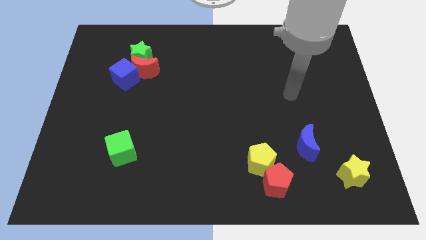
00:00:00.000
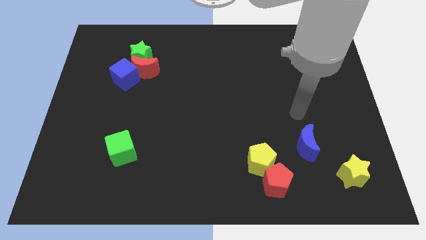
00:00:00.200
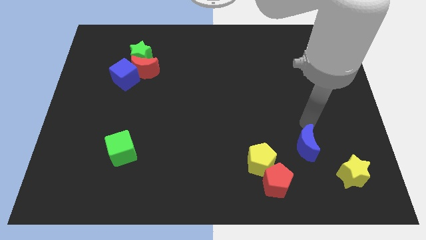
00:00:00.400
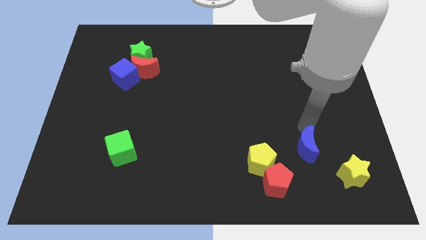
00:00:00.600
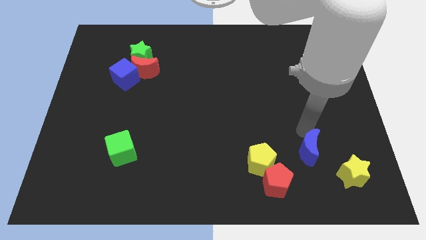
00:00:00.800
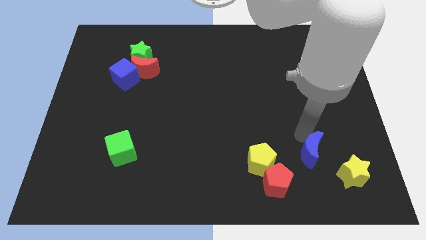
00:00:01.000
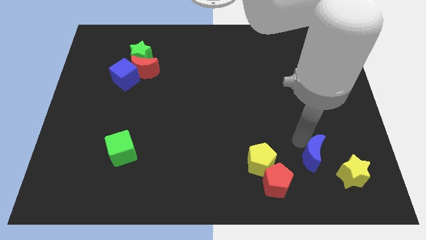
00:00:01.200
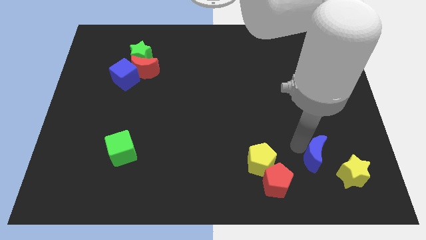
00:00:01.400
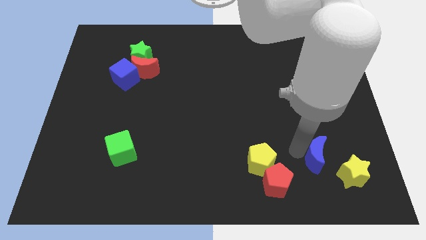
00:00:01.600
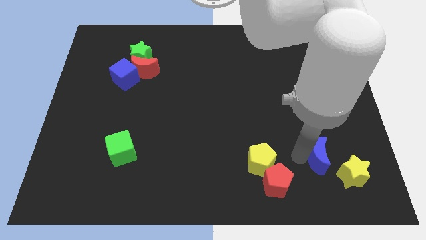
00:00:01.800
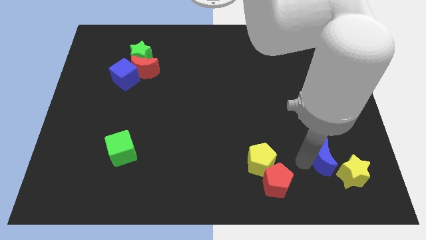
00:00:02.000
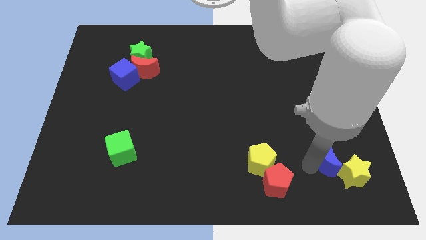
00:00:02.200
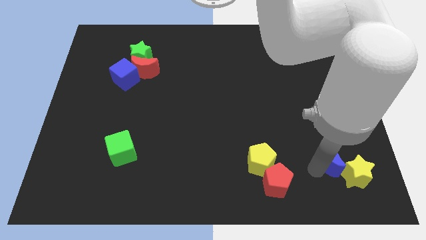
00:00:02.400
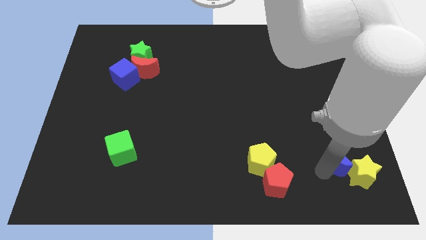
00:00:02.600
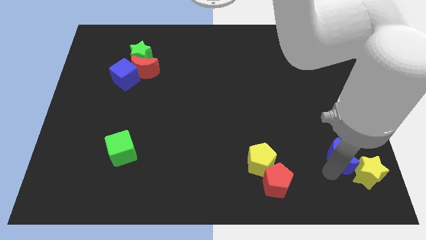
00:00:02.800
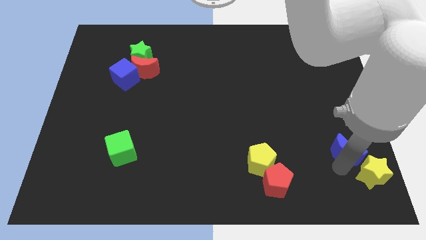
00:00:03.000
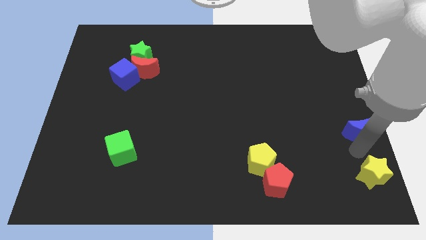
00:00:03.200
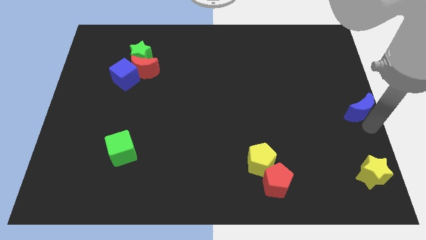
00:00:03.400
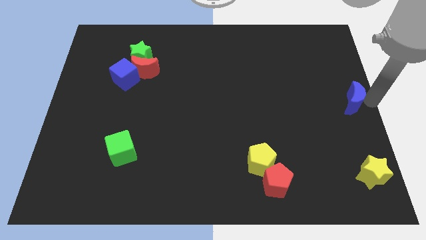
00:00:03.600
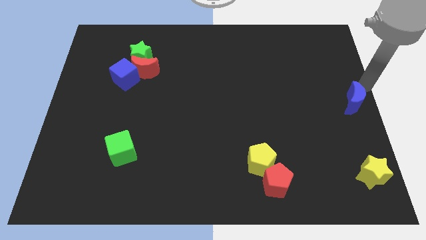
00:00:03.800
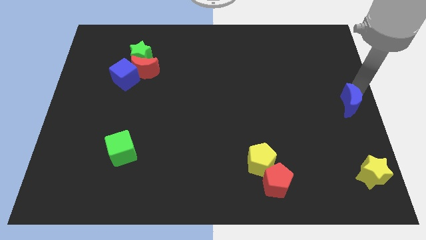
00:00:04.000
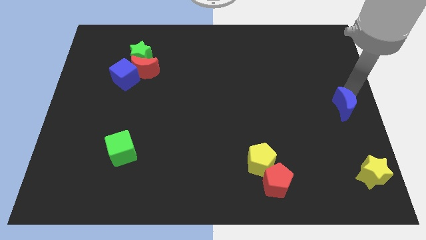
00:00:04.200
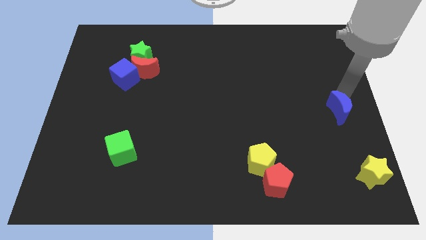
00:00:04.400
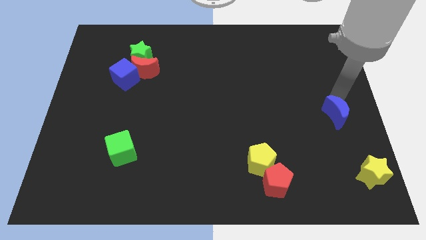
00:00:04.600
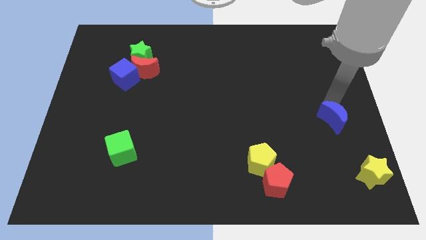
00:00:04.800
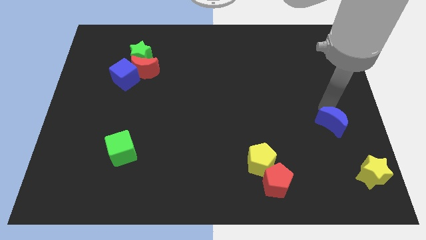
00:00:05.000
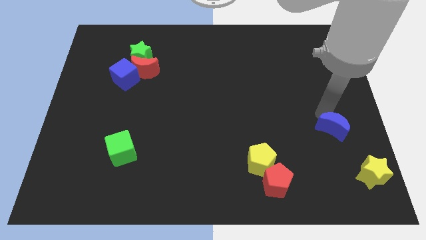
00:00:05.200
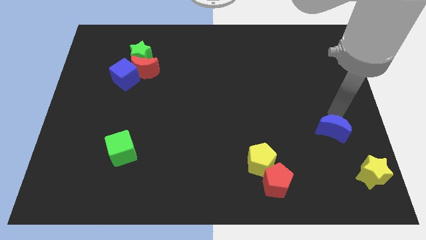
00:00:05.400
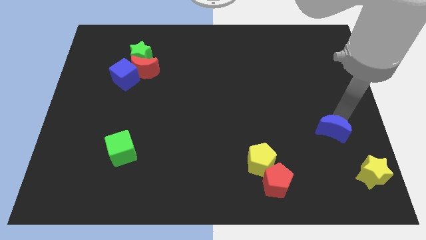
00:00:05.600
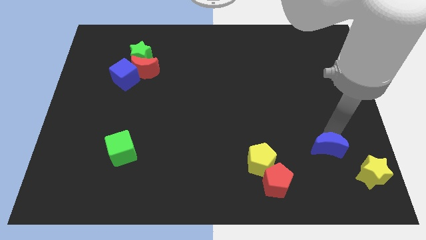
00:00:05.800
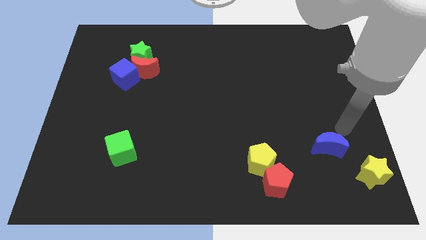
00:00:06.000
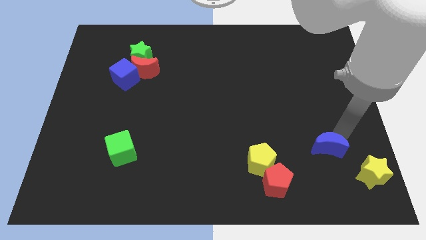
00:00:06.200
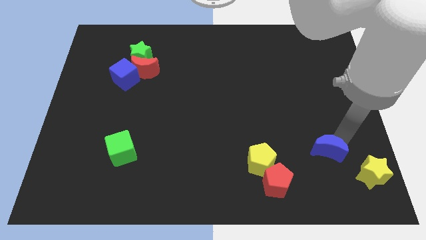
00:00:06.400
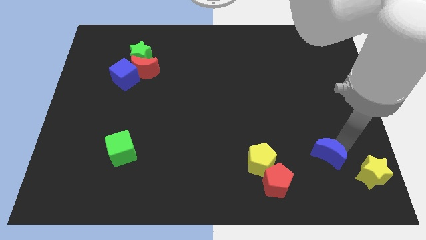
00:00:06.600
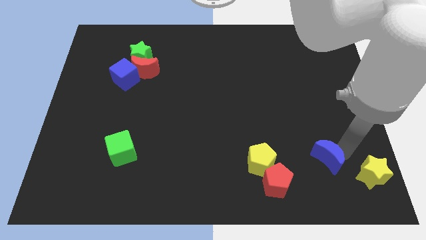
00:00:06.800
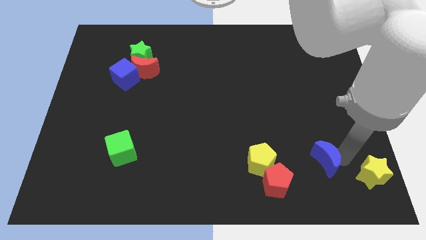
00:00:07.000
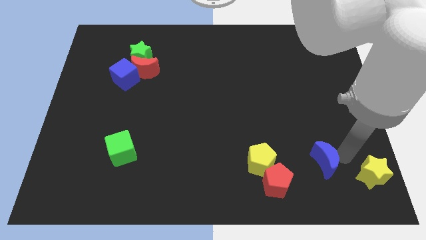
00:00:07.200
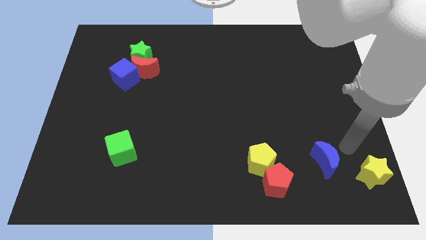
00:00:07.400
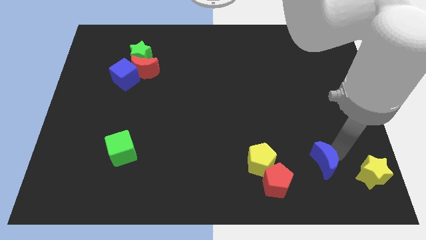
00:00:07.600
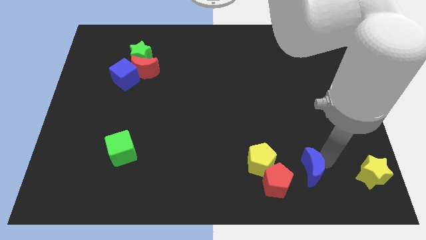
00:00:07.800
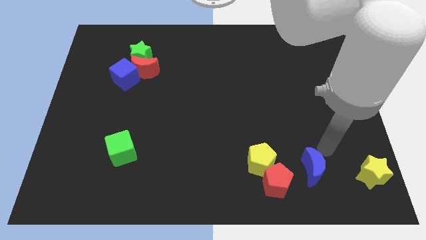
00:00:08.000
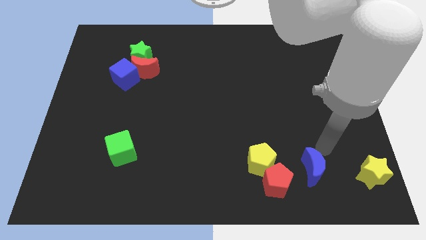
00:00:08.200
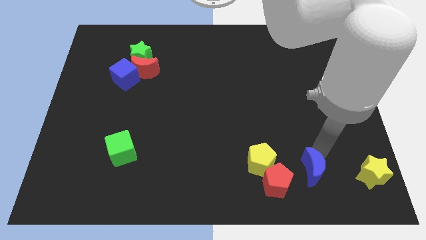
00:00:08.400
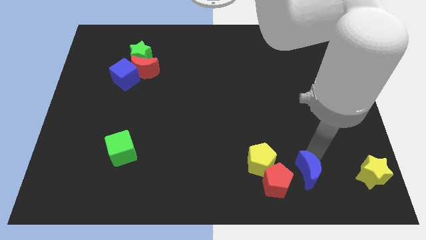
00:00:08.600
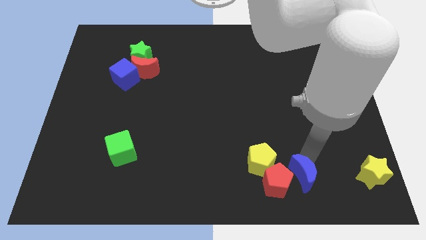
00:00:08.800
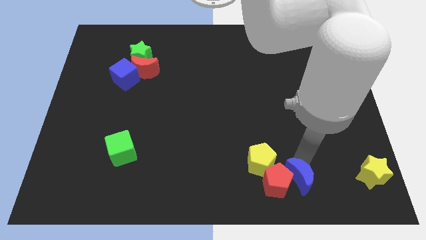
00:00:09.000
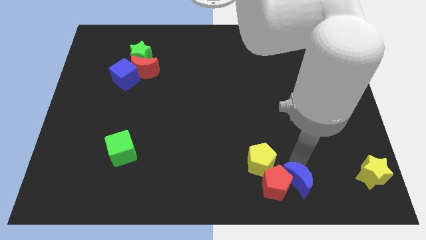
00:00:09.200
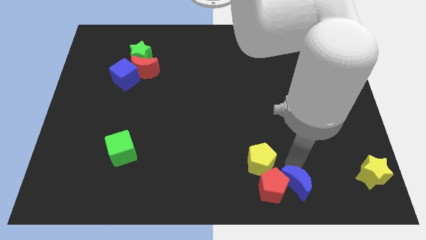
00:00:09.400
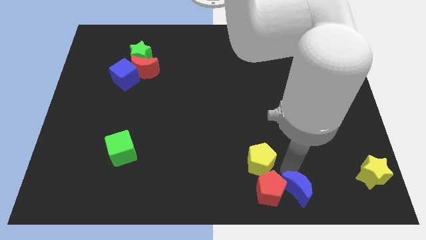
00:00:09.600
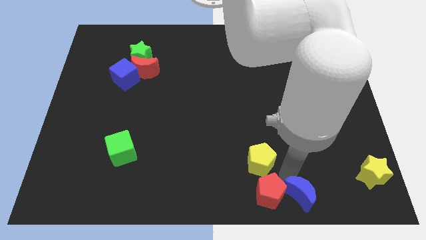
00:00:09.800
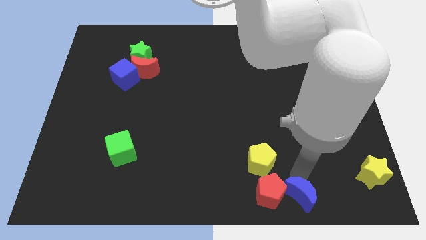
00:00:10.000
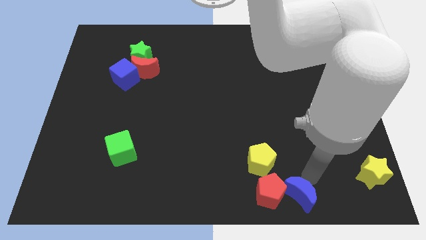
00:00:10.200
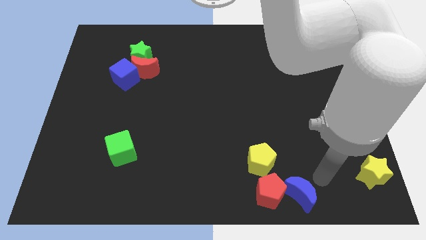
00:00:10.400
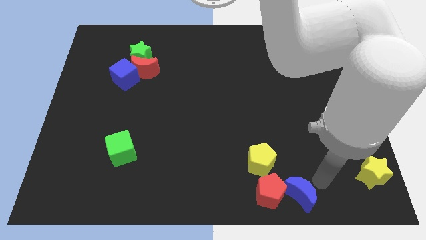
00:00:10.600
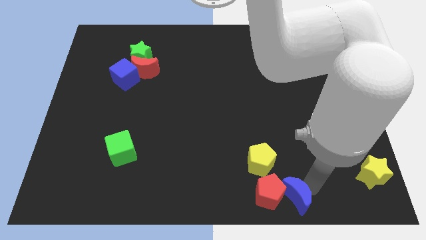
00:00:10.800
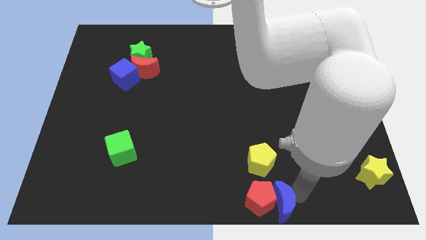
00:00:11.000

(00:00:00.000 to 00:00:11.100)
move the blue moon to the bottom

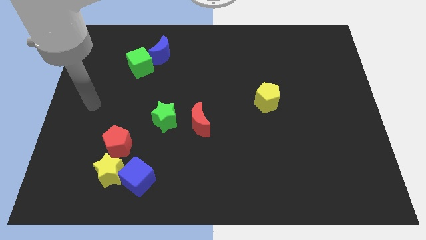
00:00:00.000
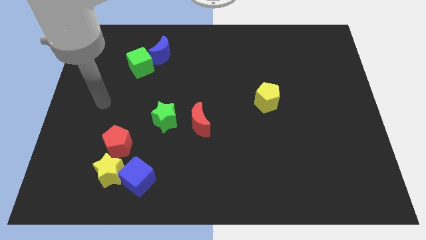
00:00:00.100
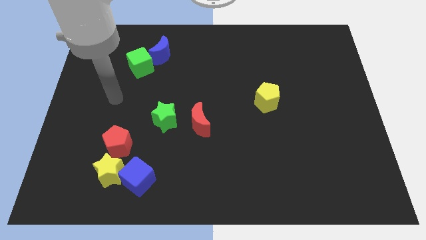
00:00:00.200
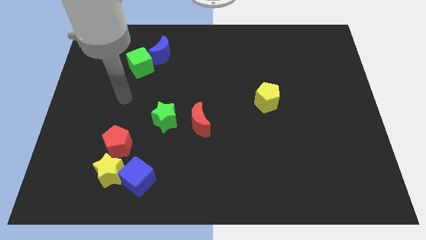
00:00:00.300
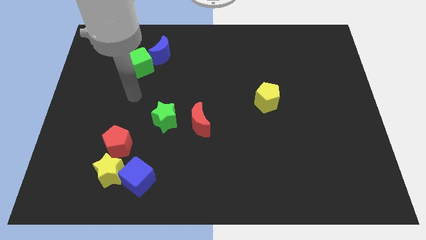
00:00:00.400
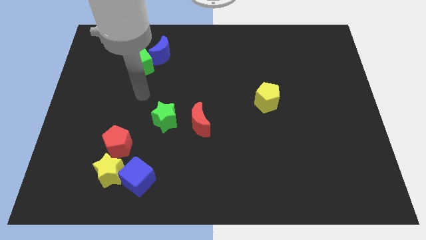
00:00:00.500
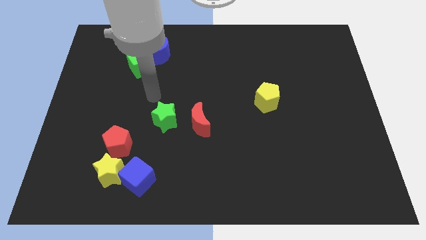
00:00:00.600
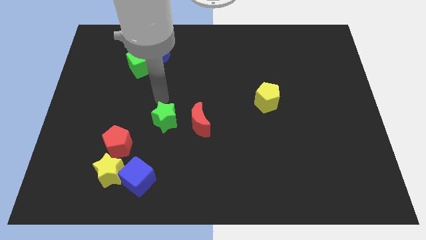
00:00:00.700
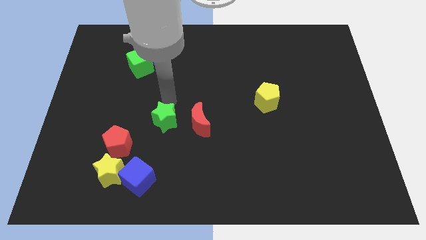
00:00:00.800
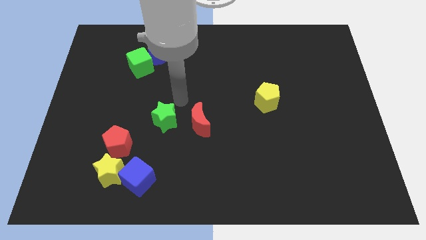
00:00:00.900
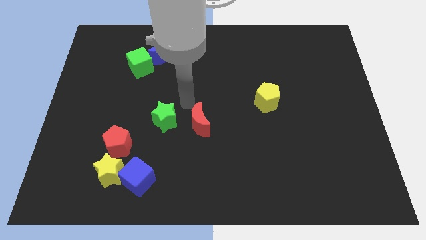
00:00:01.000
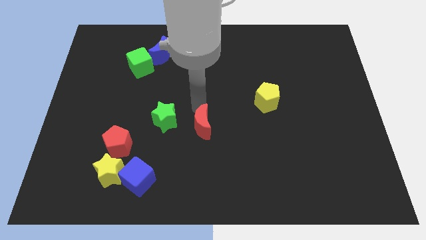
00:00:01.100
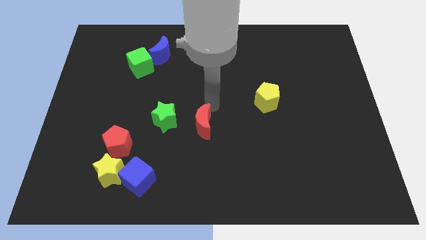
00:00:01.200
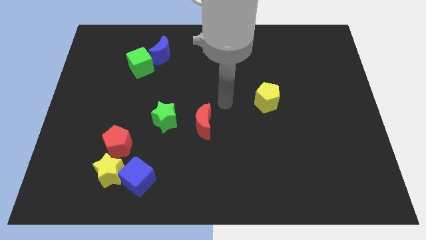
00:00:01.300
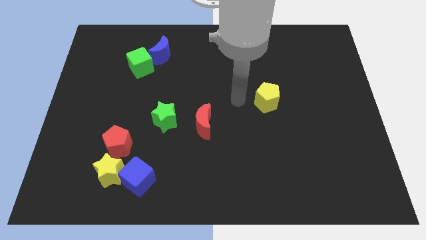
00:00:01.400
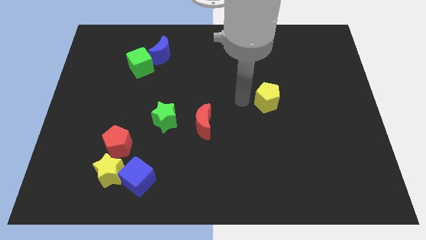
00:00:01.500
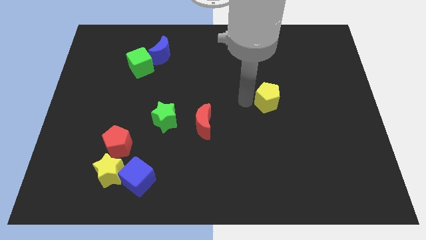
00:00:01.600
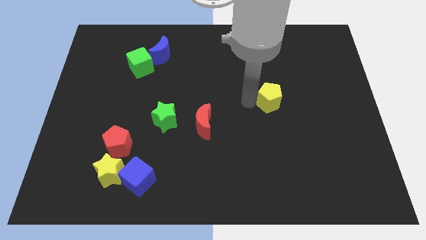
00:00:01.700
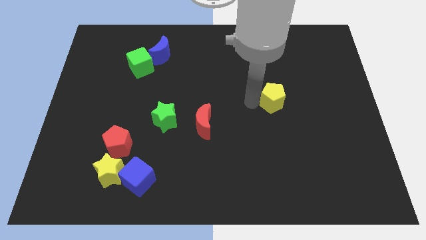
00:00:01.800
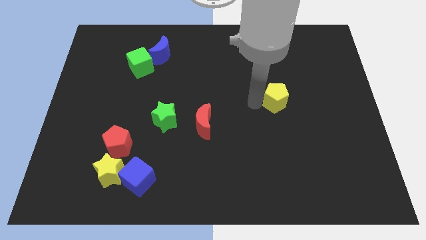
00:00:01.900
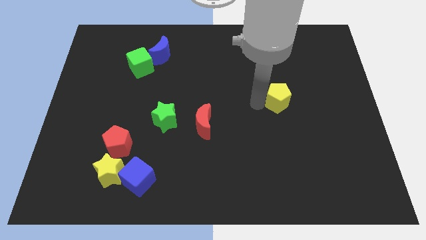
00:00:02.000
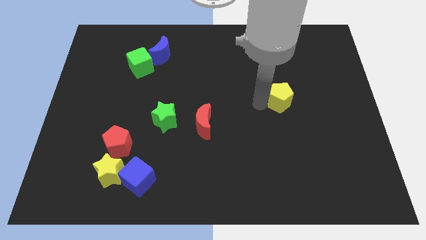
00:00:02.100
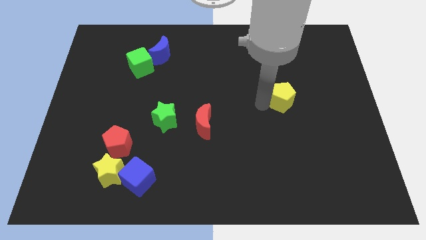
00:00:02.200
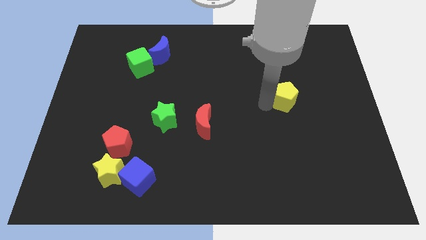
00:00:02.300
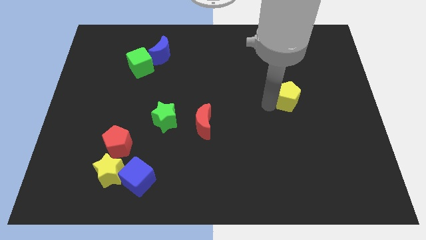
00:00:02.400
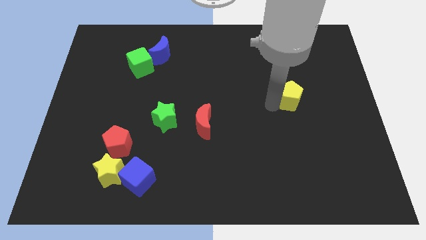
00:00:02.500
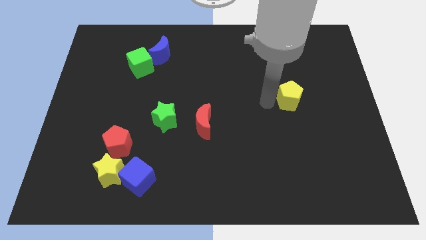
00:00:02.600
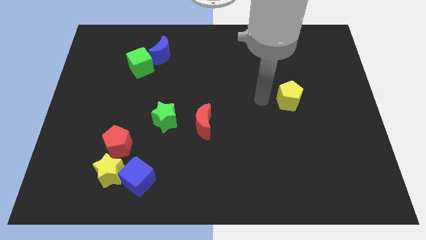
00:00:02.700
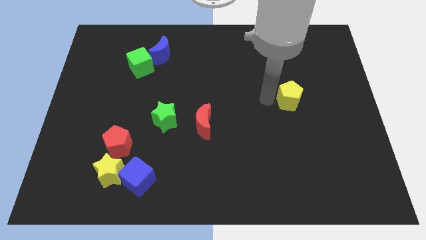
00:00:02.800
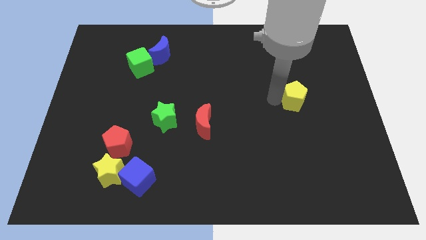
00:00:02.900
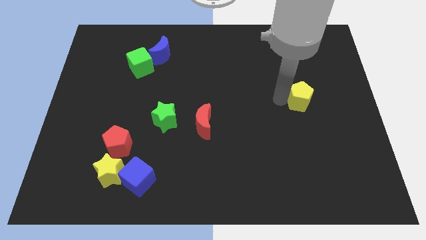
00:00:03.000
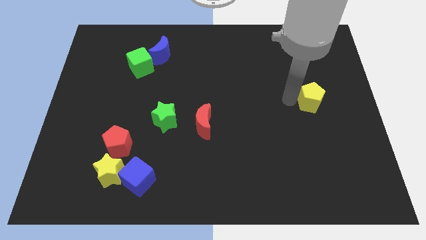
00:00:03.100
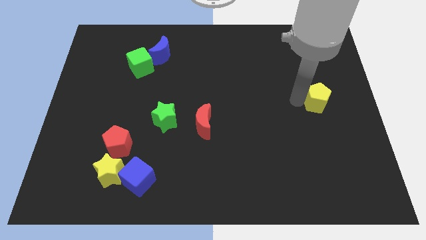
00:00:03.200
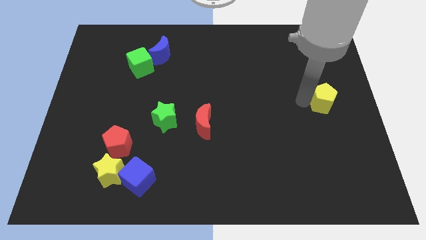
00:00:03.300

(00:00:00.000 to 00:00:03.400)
slide the yellow pentagon to the right side
